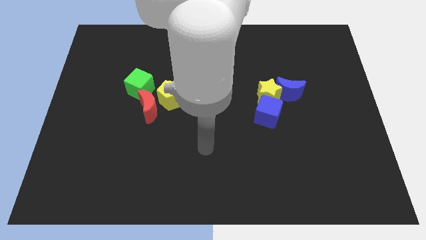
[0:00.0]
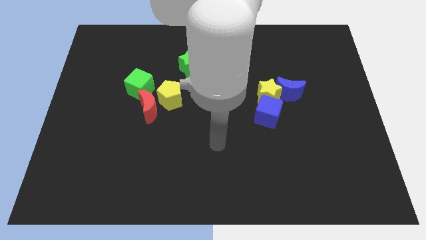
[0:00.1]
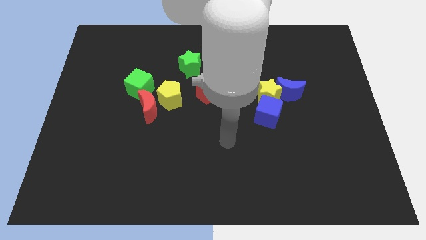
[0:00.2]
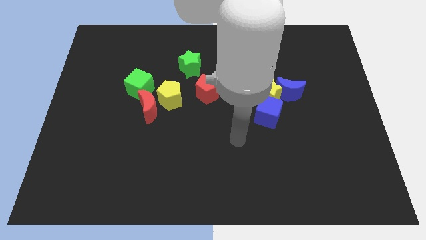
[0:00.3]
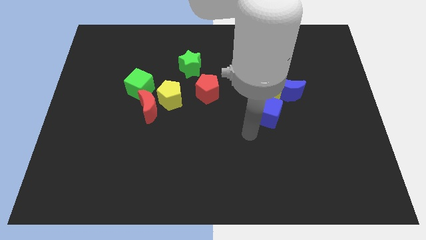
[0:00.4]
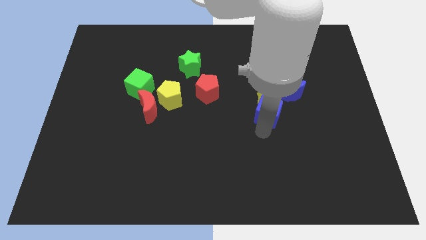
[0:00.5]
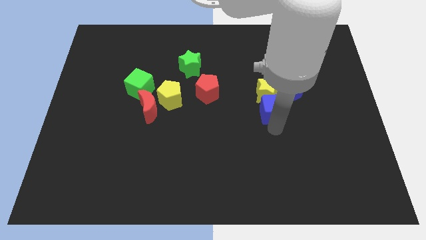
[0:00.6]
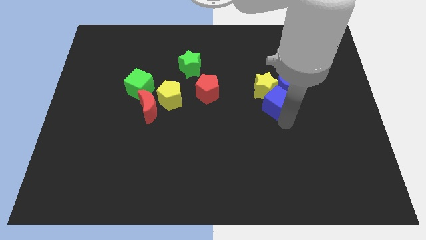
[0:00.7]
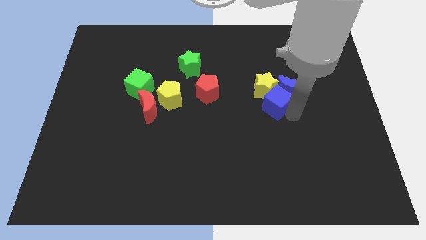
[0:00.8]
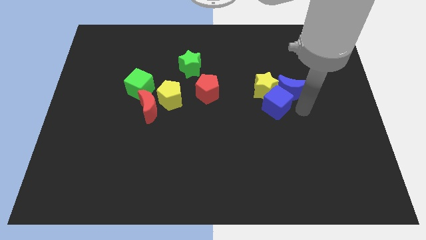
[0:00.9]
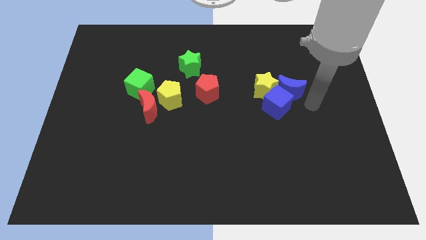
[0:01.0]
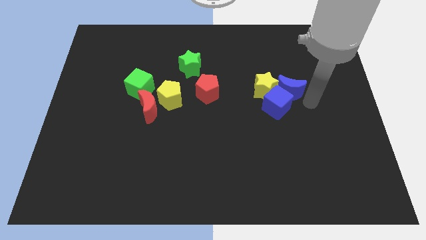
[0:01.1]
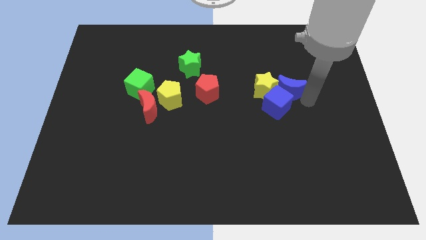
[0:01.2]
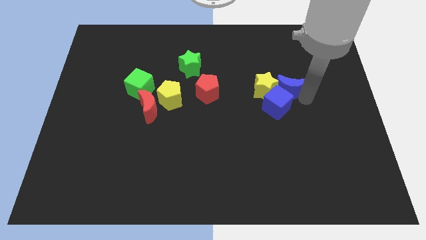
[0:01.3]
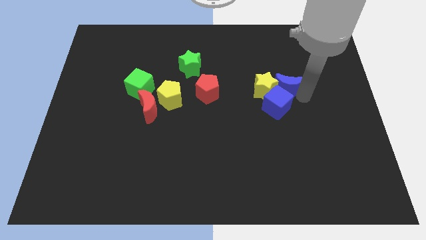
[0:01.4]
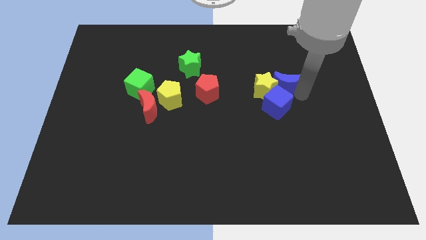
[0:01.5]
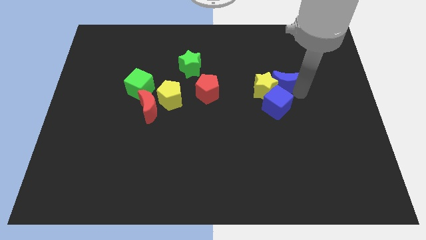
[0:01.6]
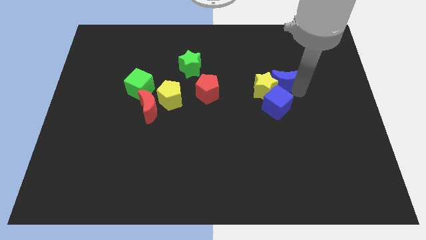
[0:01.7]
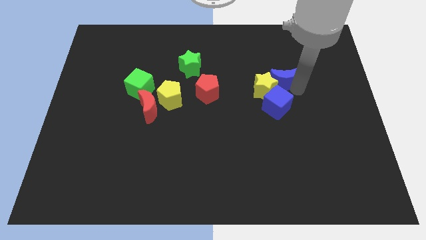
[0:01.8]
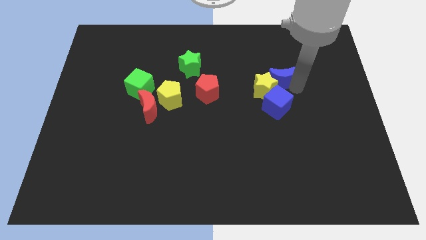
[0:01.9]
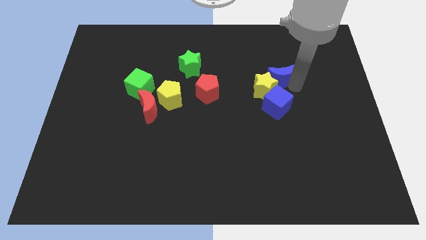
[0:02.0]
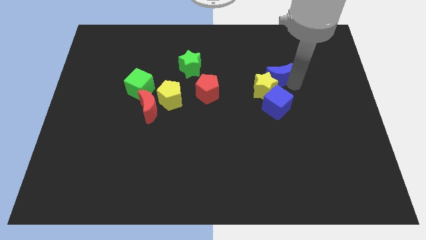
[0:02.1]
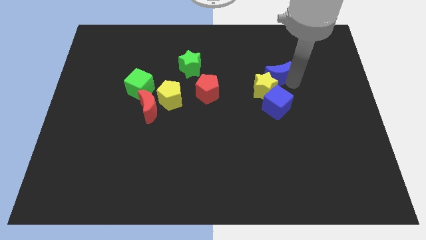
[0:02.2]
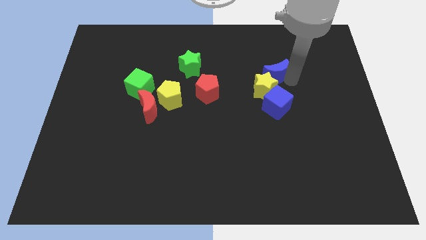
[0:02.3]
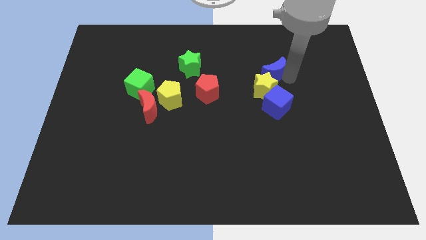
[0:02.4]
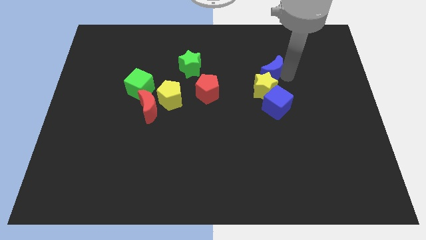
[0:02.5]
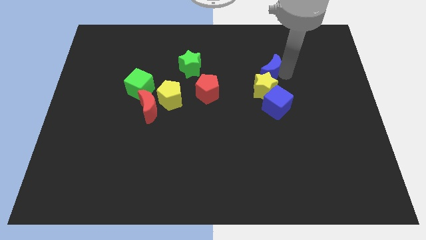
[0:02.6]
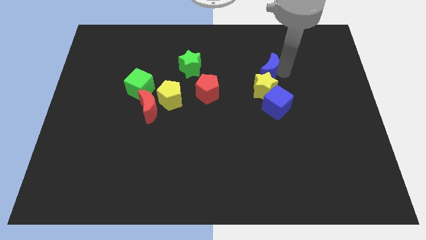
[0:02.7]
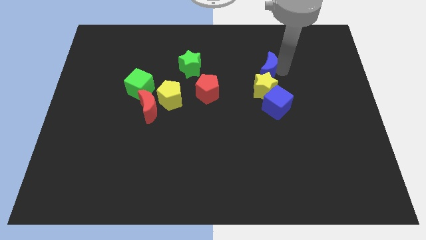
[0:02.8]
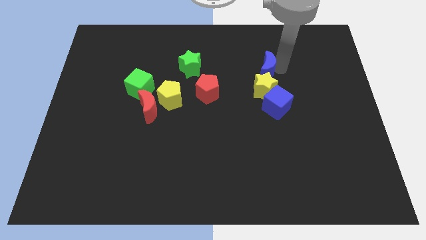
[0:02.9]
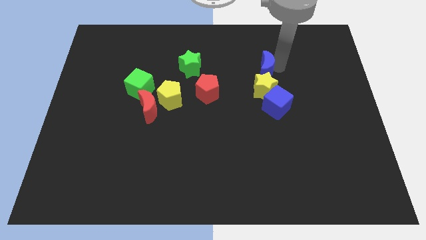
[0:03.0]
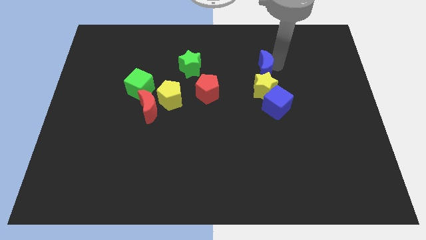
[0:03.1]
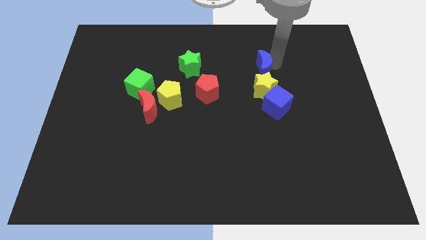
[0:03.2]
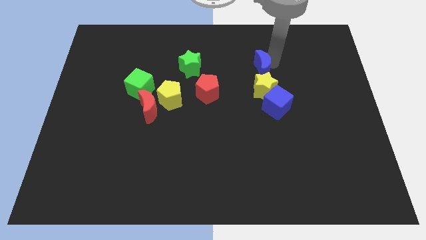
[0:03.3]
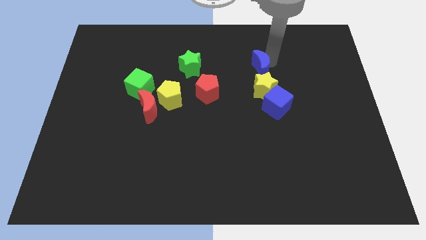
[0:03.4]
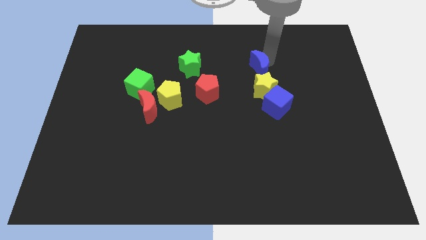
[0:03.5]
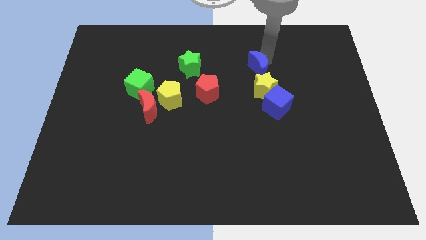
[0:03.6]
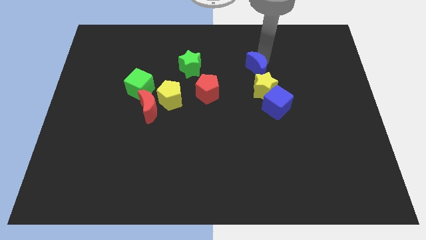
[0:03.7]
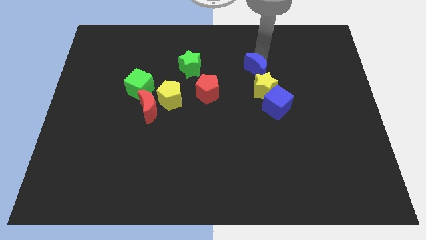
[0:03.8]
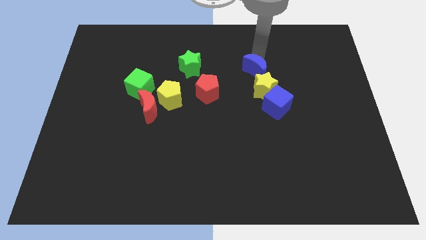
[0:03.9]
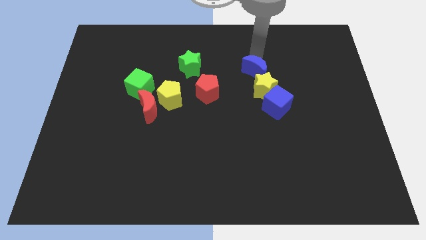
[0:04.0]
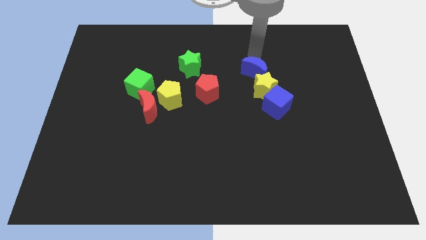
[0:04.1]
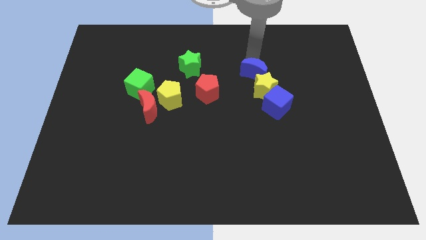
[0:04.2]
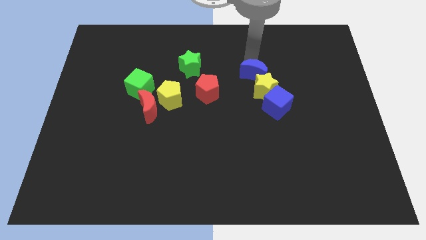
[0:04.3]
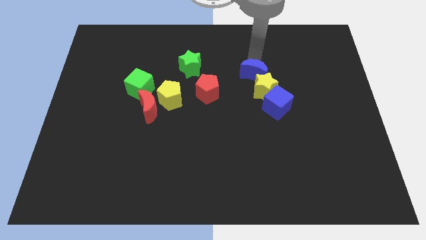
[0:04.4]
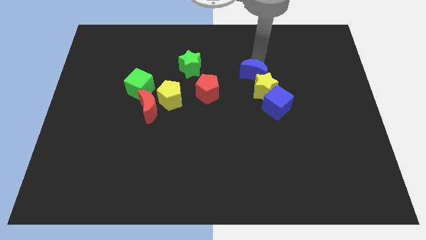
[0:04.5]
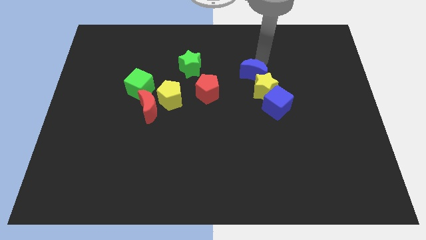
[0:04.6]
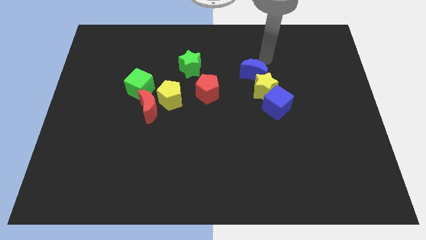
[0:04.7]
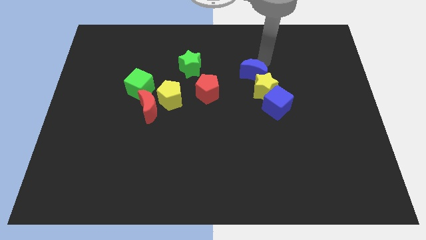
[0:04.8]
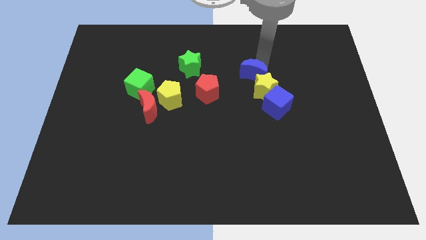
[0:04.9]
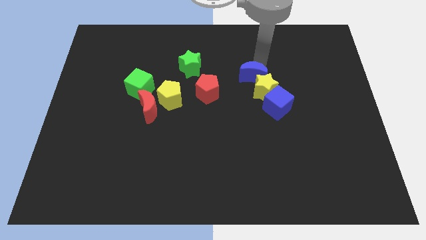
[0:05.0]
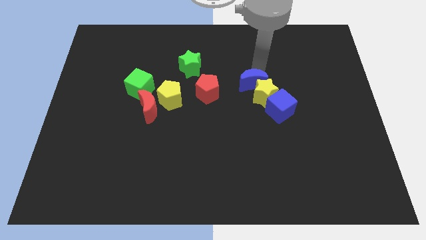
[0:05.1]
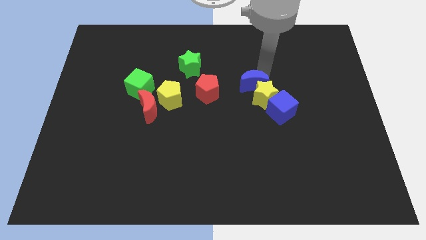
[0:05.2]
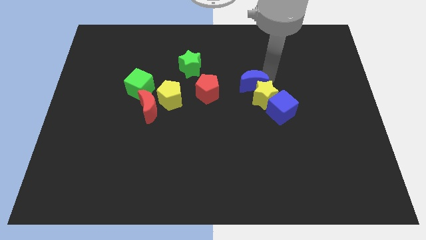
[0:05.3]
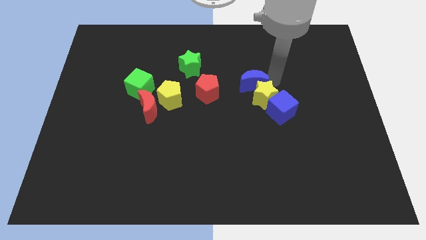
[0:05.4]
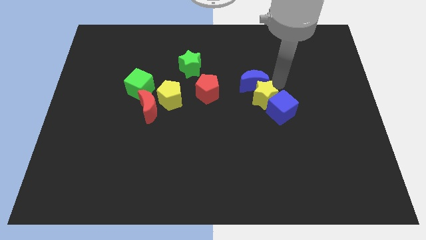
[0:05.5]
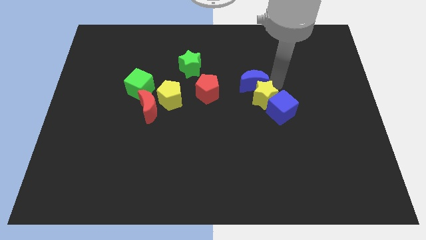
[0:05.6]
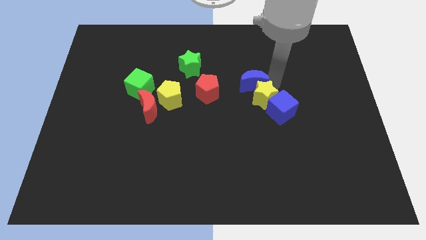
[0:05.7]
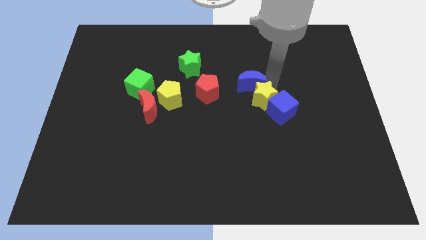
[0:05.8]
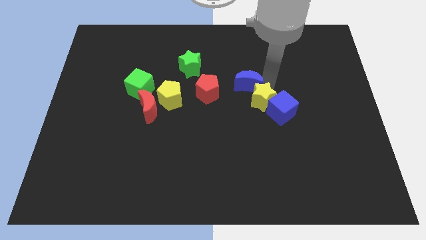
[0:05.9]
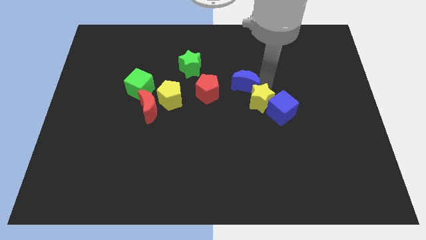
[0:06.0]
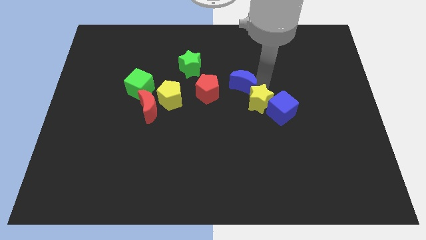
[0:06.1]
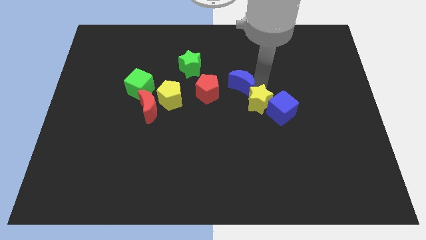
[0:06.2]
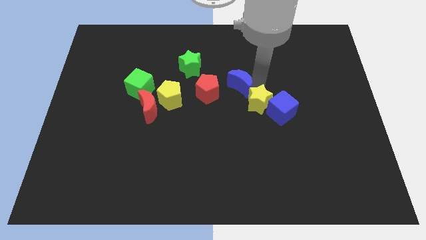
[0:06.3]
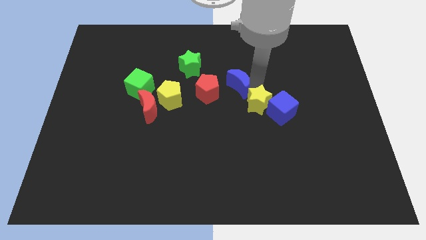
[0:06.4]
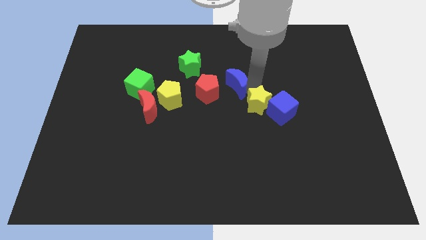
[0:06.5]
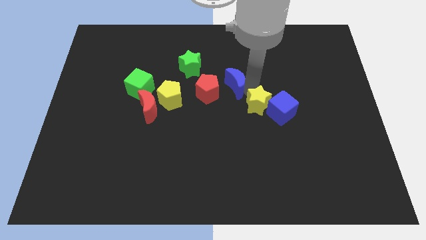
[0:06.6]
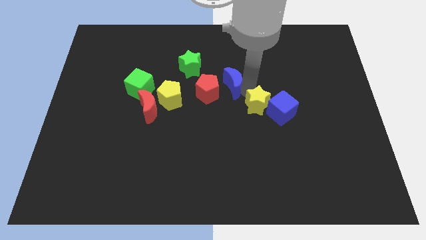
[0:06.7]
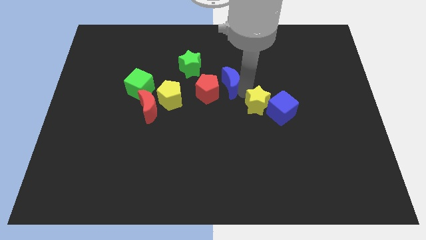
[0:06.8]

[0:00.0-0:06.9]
move the blue moon close to the red pentagon
